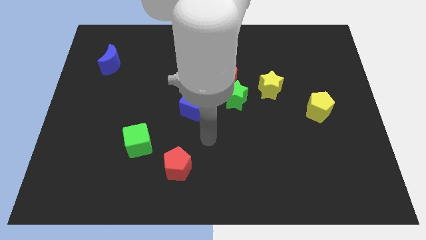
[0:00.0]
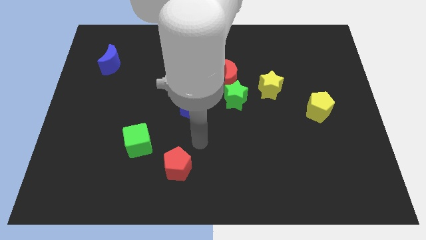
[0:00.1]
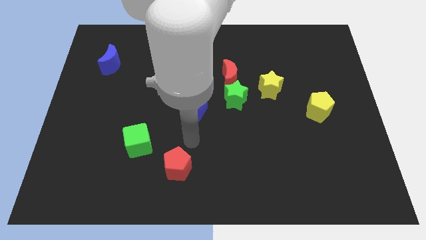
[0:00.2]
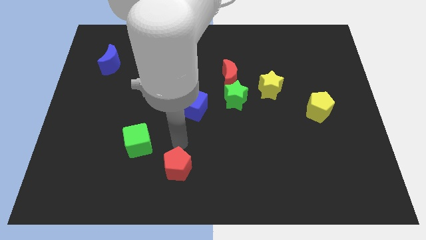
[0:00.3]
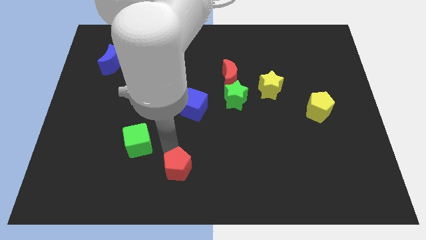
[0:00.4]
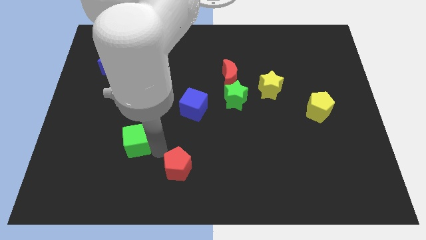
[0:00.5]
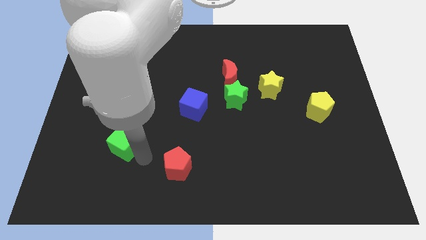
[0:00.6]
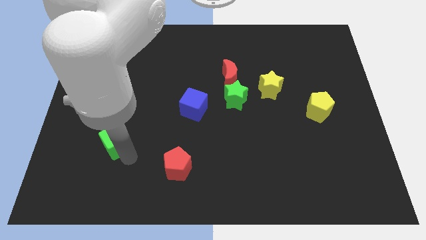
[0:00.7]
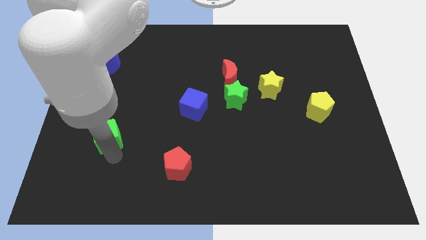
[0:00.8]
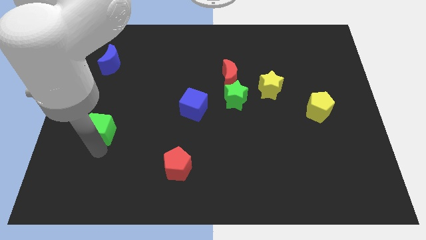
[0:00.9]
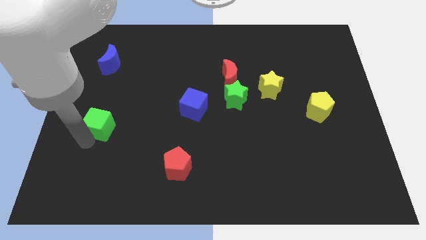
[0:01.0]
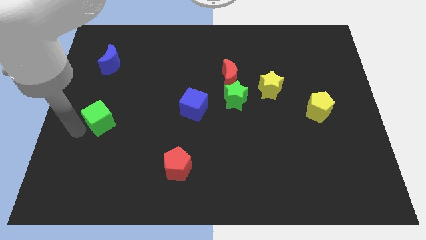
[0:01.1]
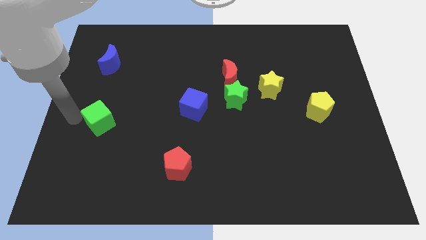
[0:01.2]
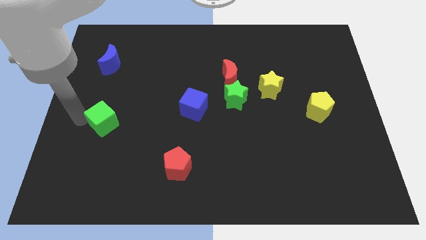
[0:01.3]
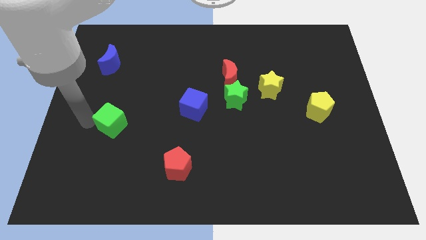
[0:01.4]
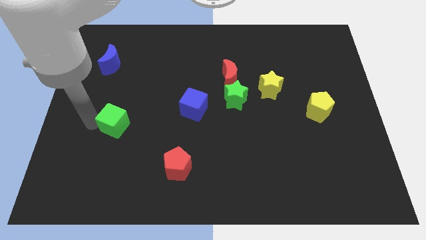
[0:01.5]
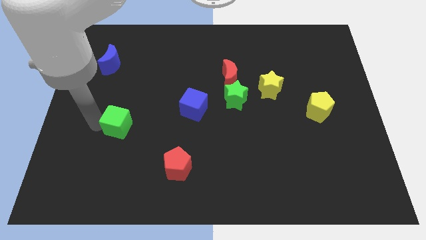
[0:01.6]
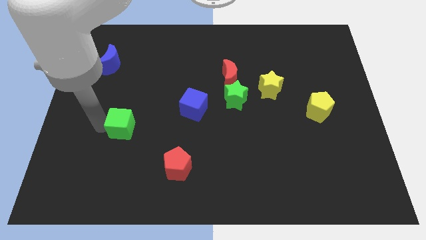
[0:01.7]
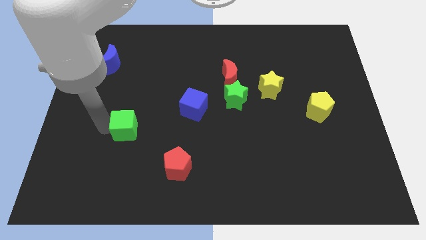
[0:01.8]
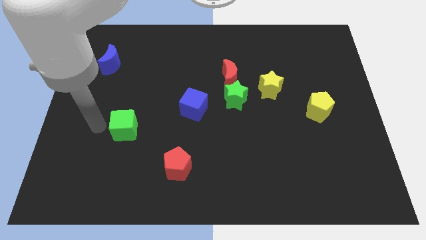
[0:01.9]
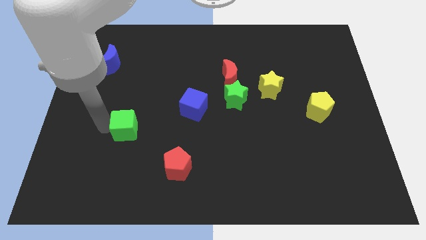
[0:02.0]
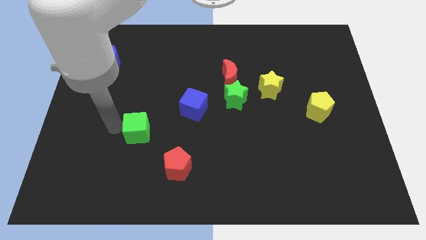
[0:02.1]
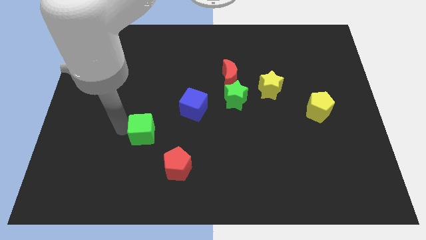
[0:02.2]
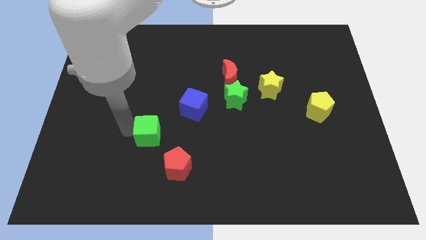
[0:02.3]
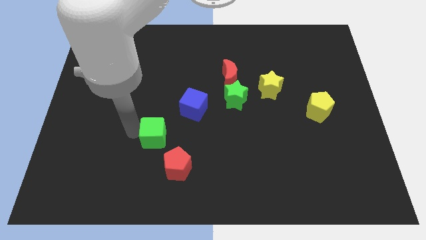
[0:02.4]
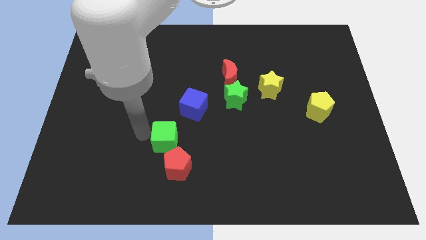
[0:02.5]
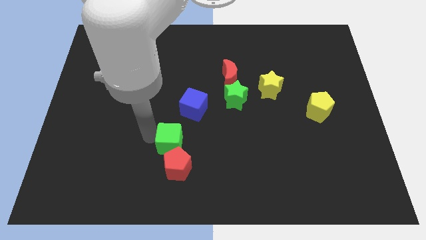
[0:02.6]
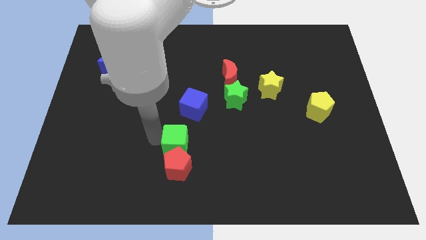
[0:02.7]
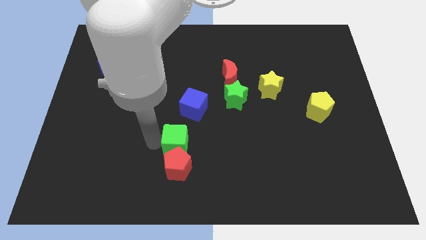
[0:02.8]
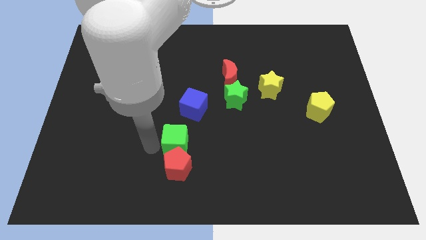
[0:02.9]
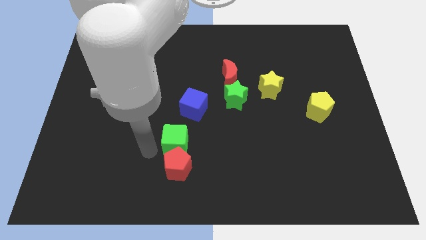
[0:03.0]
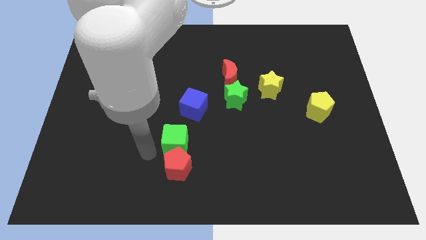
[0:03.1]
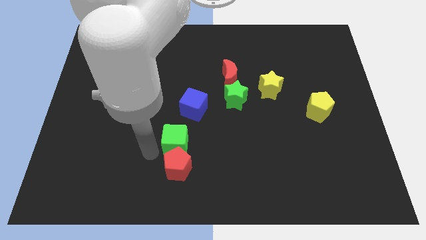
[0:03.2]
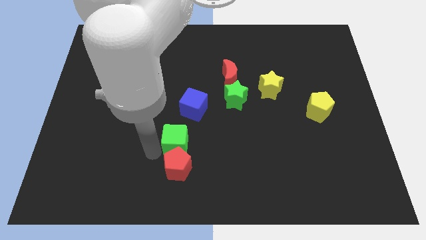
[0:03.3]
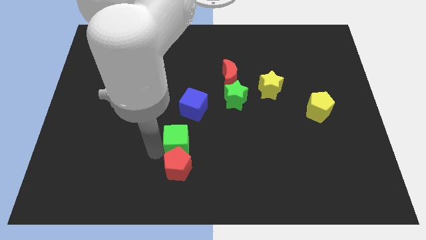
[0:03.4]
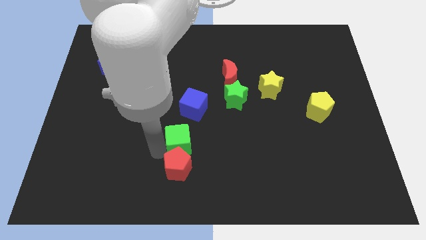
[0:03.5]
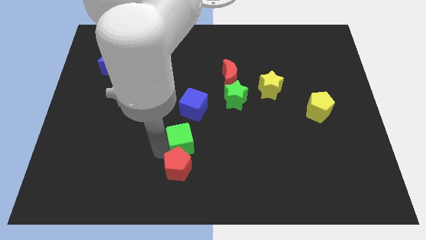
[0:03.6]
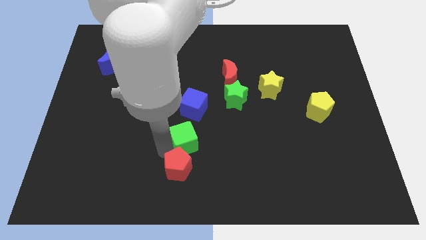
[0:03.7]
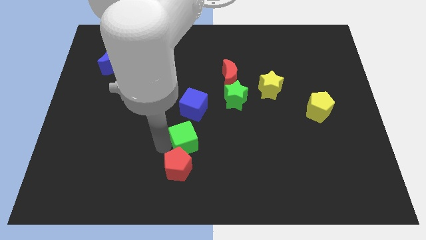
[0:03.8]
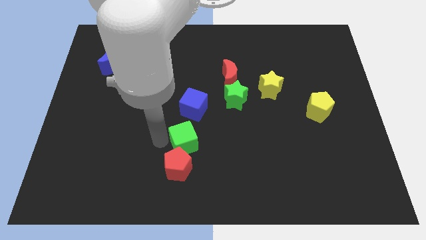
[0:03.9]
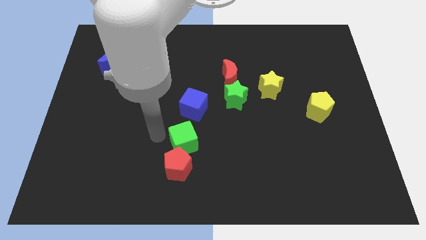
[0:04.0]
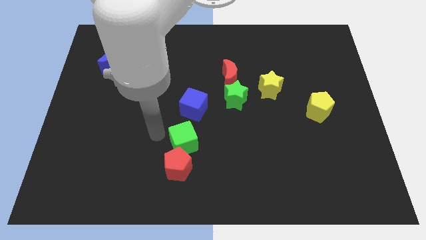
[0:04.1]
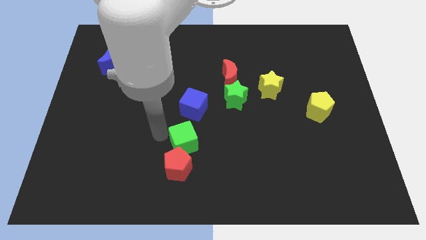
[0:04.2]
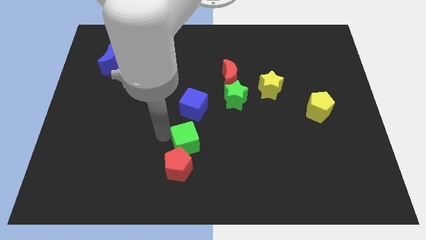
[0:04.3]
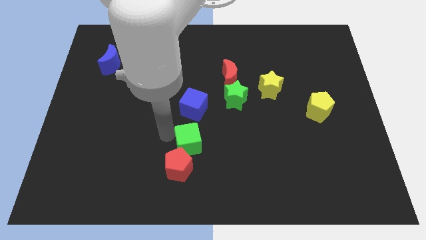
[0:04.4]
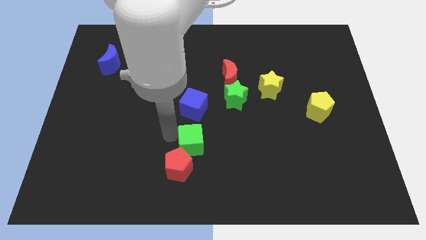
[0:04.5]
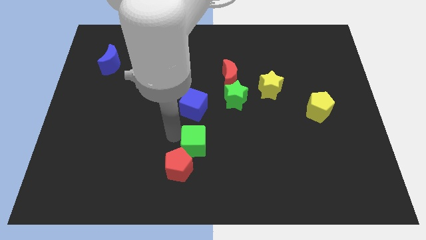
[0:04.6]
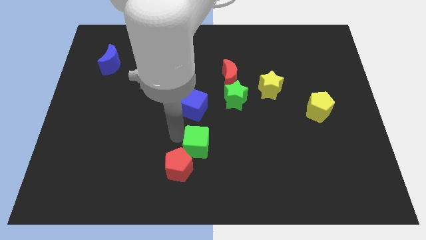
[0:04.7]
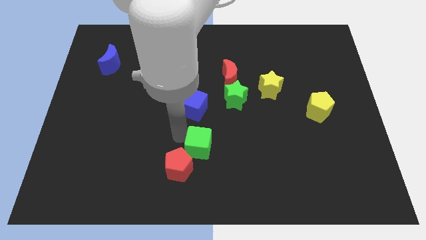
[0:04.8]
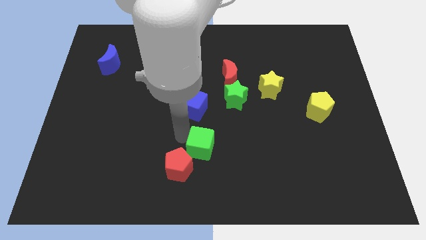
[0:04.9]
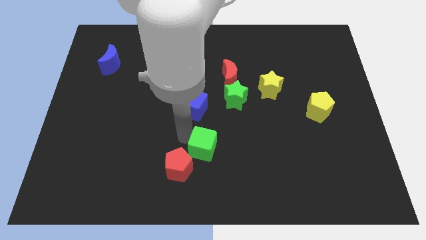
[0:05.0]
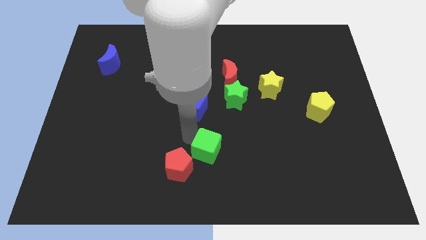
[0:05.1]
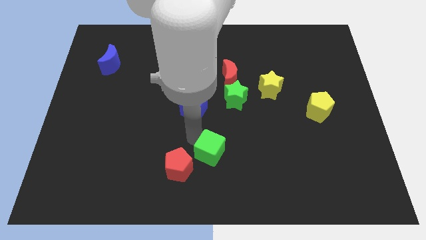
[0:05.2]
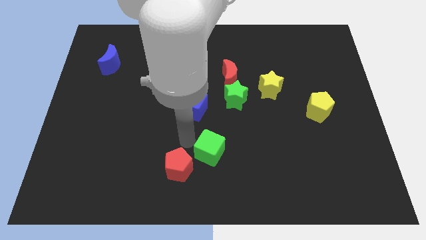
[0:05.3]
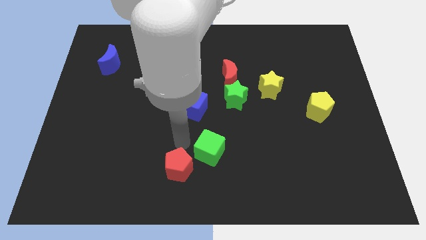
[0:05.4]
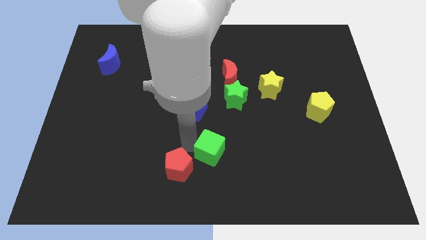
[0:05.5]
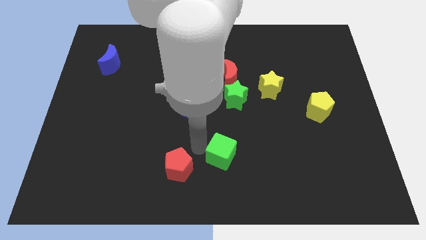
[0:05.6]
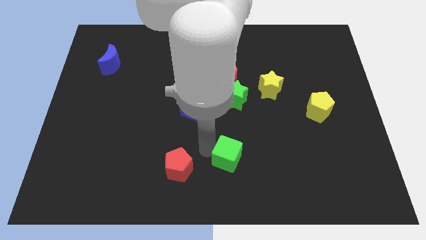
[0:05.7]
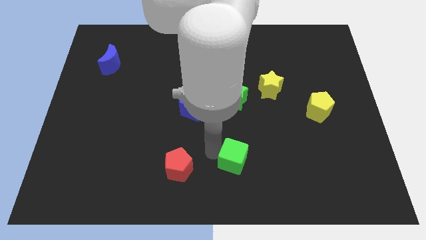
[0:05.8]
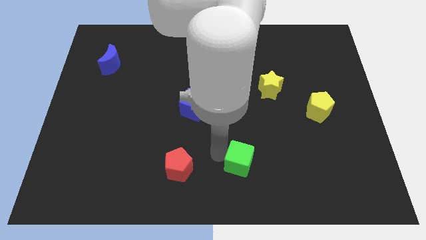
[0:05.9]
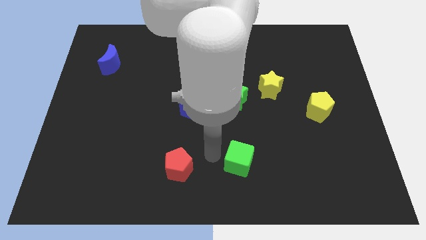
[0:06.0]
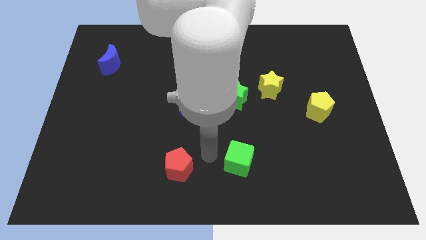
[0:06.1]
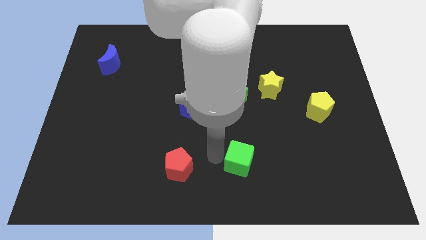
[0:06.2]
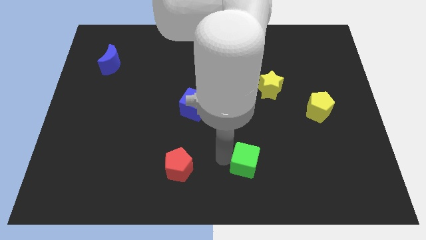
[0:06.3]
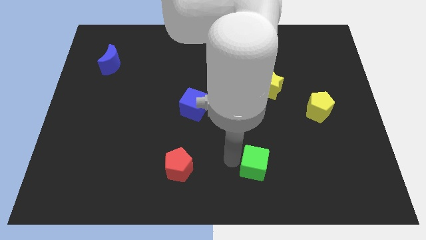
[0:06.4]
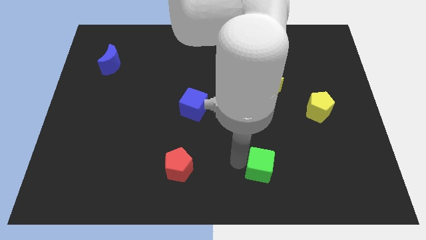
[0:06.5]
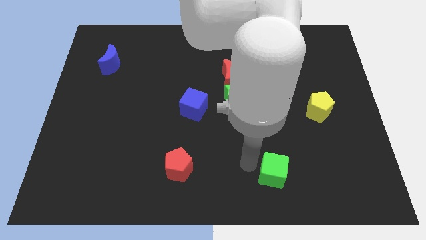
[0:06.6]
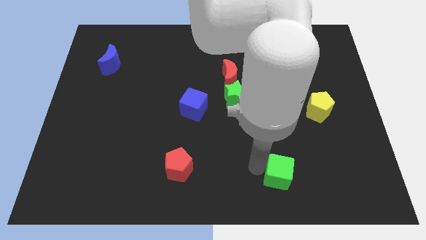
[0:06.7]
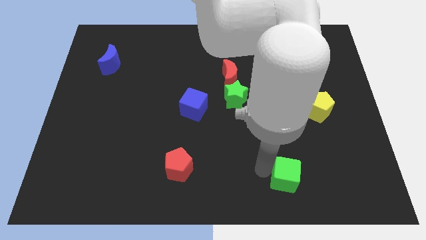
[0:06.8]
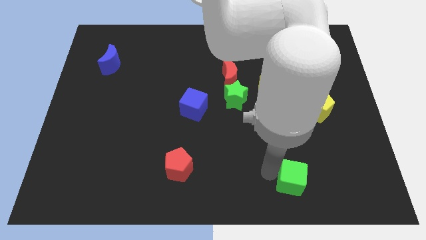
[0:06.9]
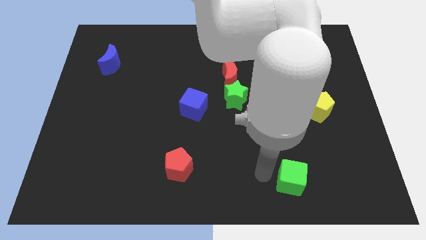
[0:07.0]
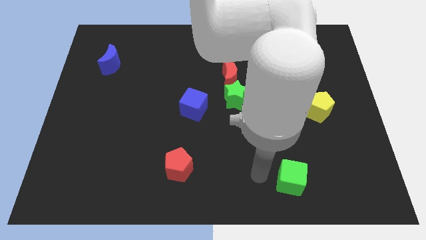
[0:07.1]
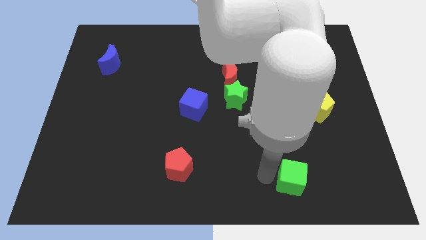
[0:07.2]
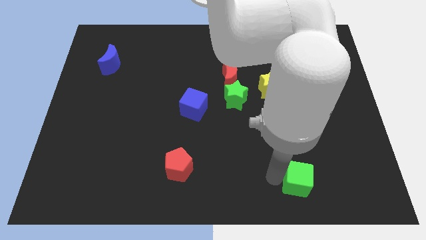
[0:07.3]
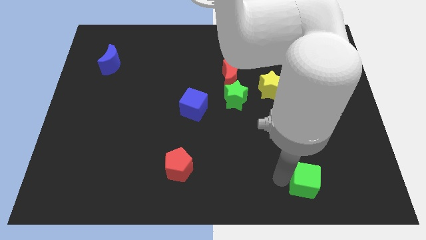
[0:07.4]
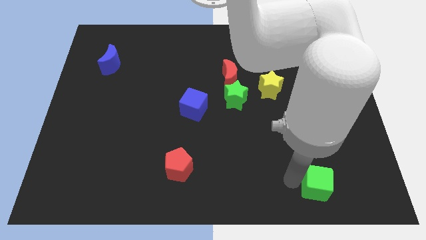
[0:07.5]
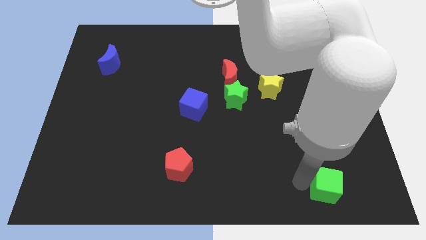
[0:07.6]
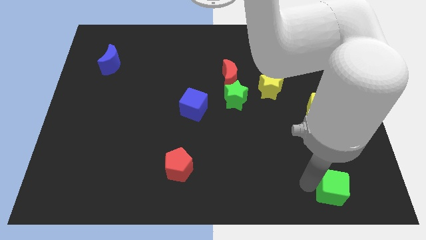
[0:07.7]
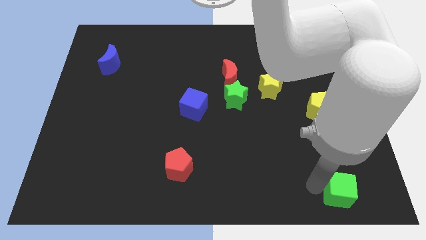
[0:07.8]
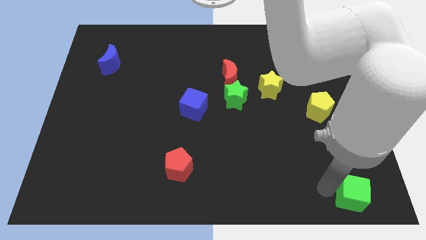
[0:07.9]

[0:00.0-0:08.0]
move the green cube to the lower right corner
